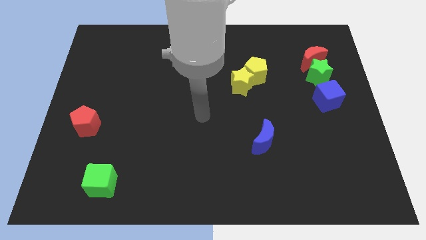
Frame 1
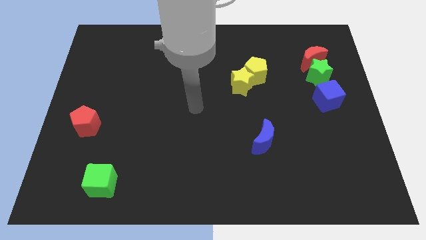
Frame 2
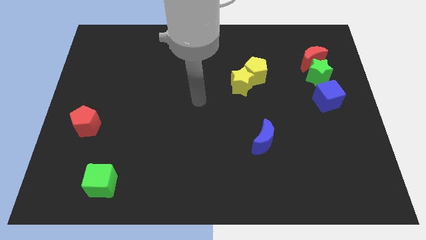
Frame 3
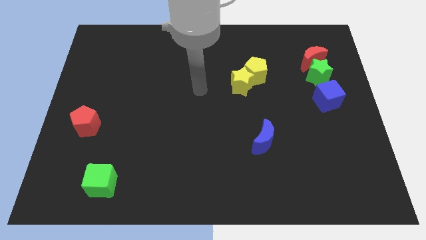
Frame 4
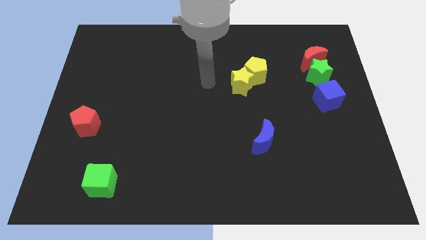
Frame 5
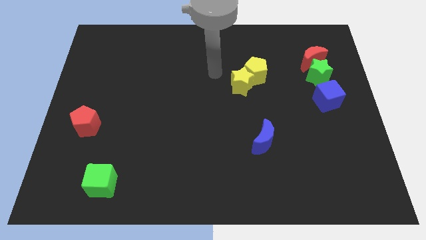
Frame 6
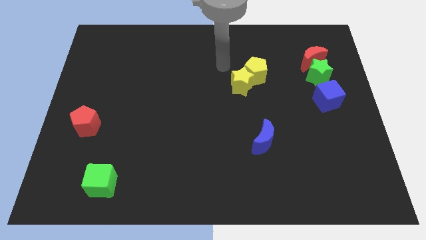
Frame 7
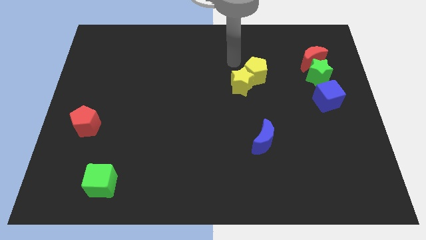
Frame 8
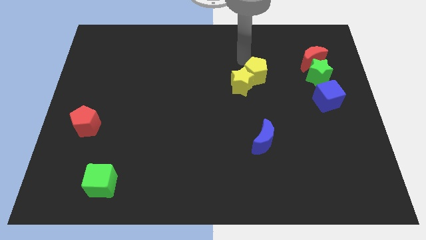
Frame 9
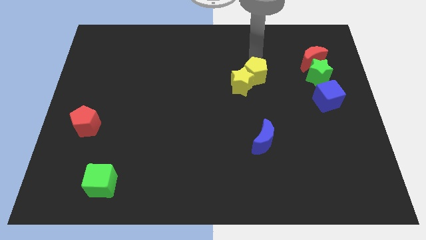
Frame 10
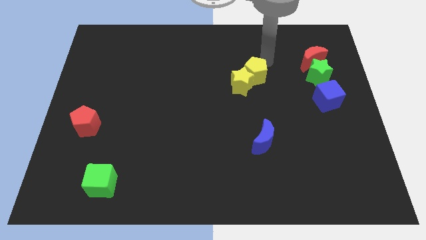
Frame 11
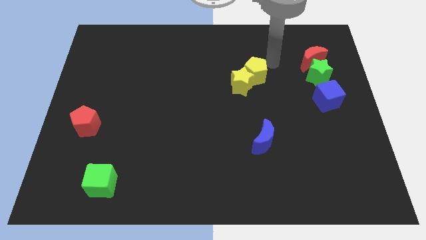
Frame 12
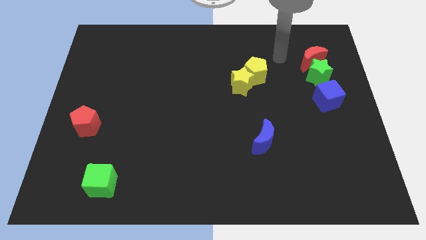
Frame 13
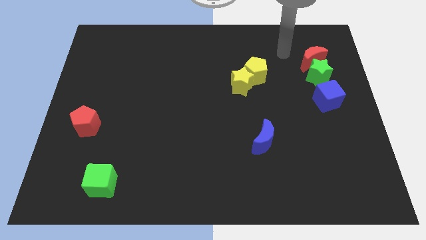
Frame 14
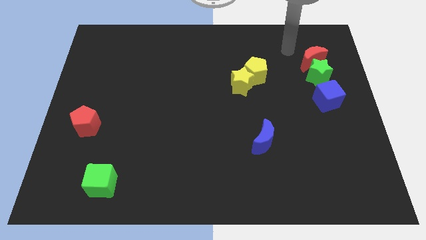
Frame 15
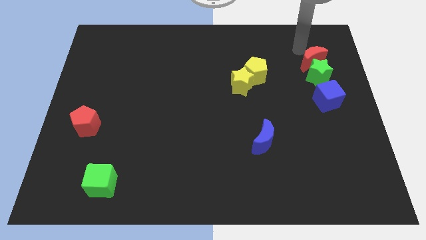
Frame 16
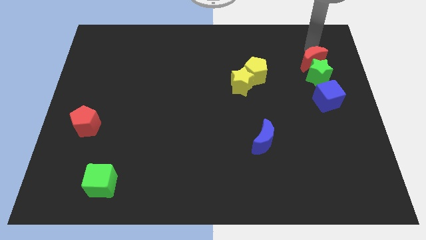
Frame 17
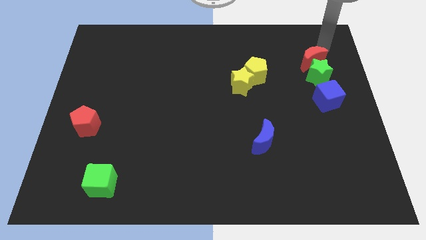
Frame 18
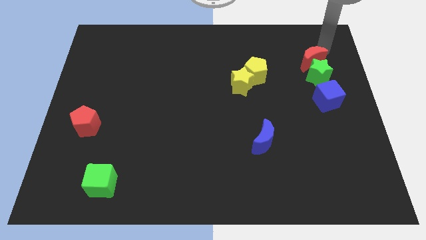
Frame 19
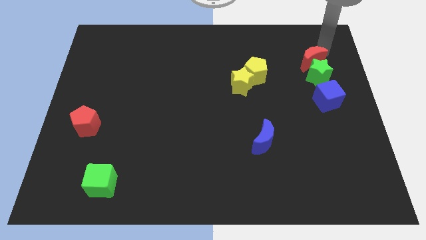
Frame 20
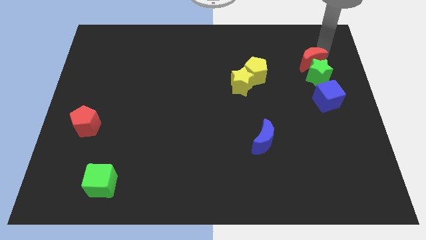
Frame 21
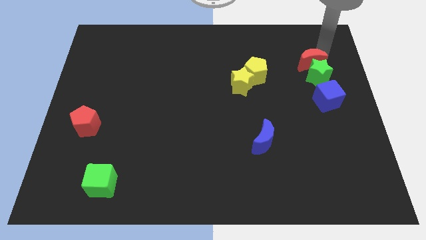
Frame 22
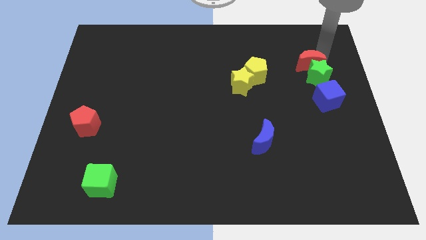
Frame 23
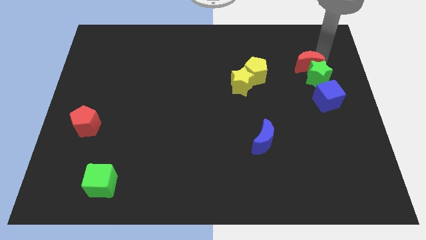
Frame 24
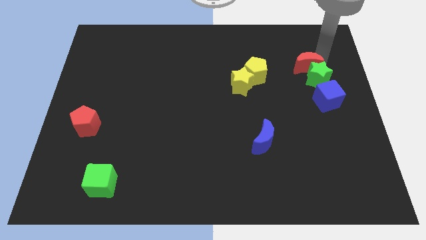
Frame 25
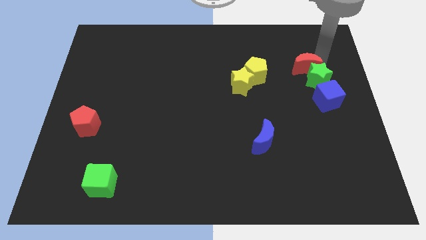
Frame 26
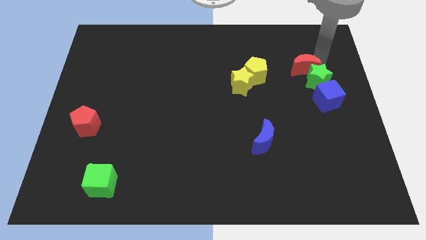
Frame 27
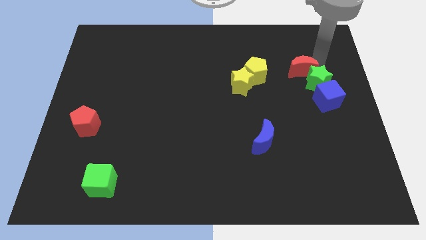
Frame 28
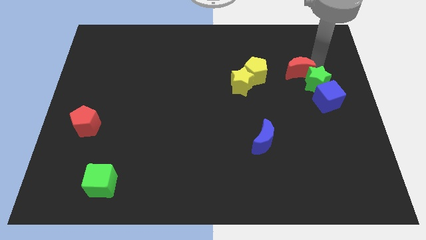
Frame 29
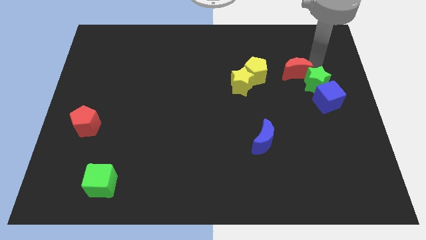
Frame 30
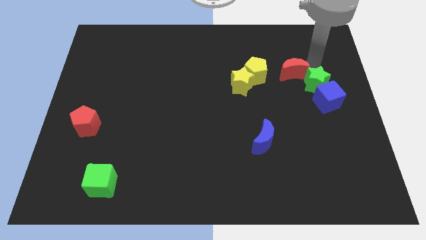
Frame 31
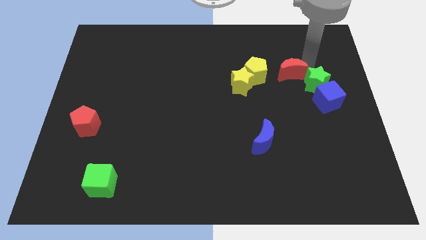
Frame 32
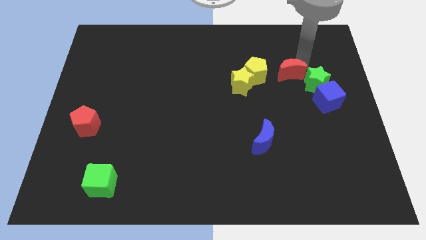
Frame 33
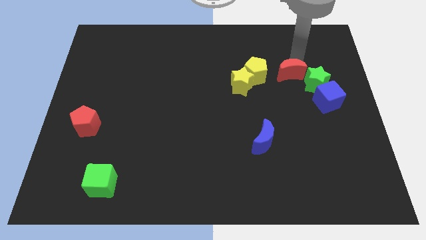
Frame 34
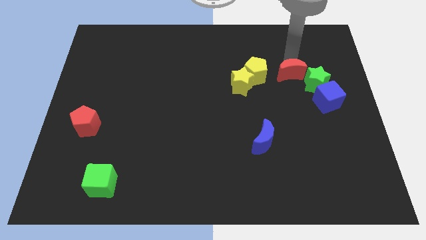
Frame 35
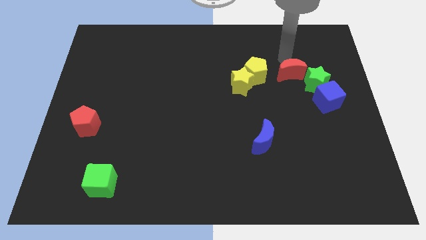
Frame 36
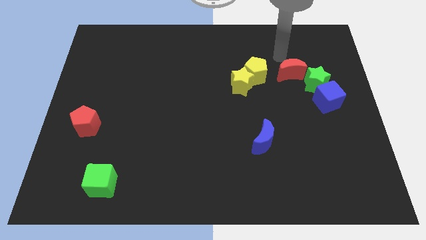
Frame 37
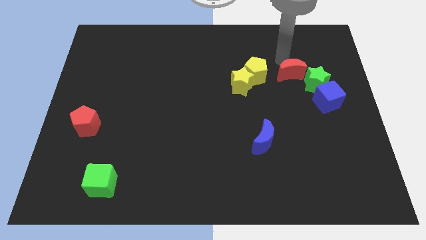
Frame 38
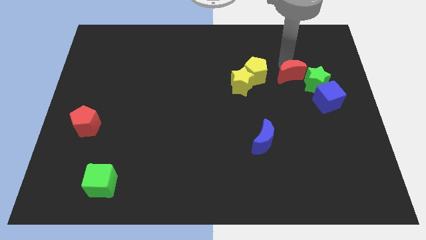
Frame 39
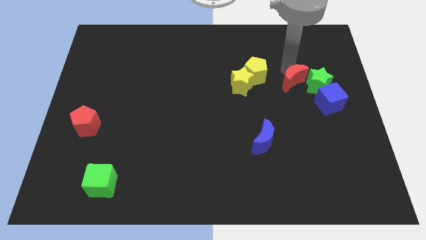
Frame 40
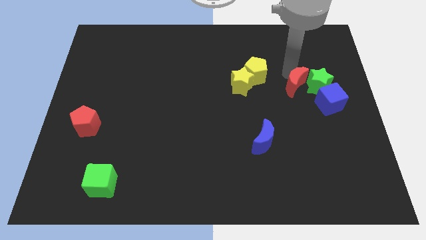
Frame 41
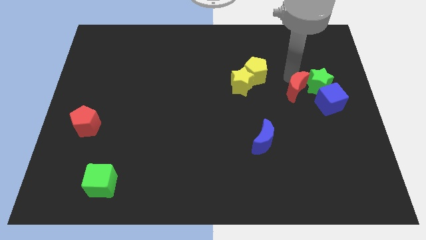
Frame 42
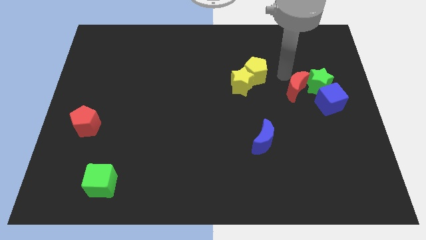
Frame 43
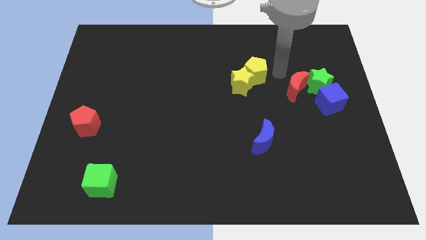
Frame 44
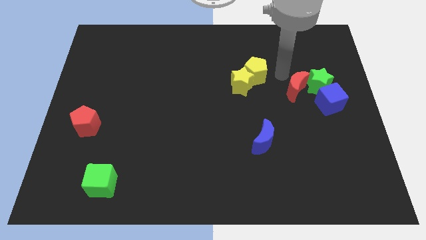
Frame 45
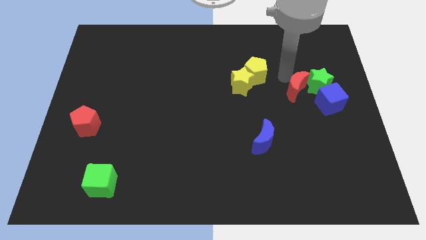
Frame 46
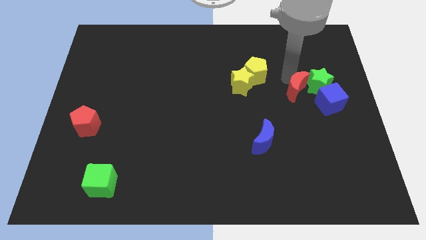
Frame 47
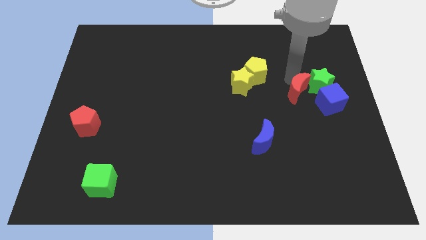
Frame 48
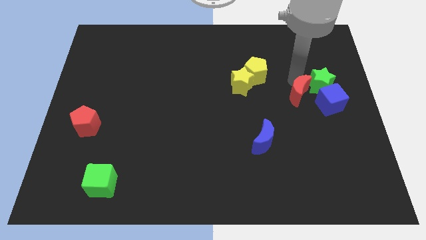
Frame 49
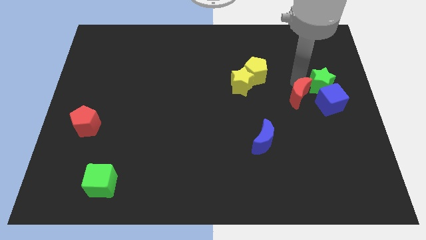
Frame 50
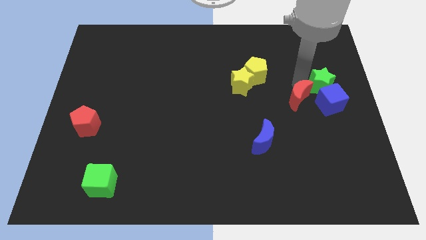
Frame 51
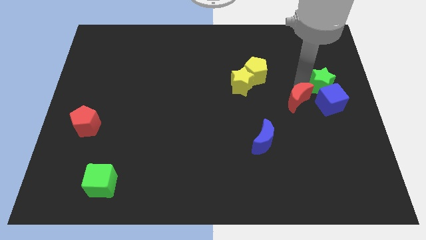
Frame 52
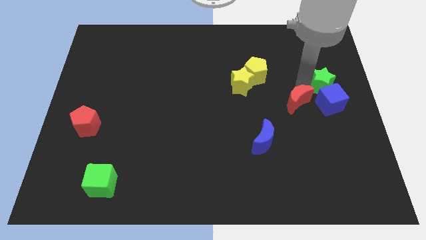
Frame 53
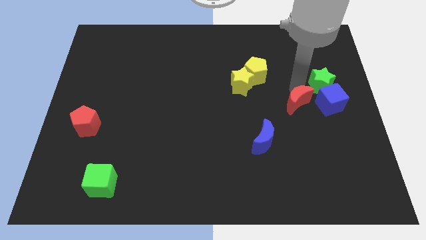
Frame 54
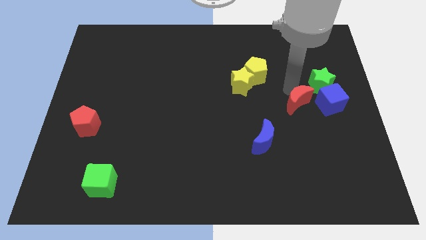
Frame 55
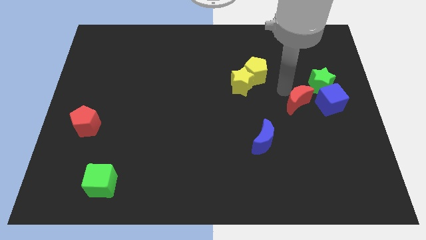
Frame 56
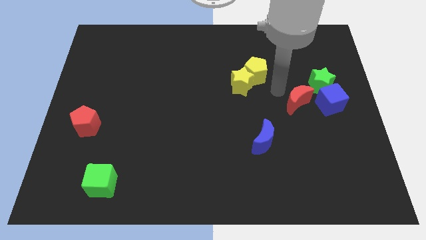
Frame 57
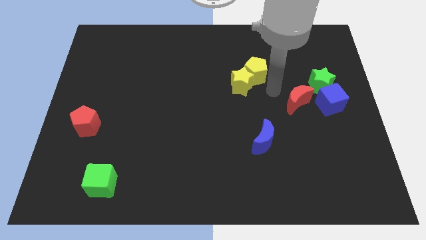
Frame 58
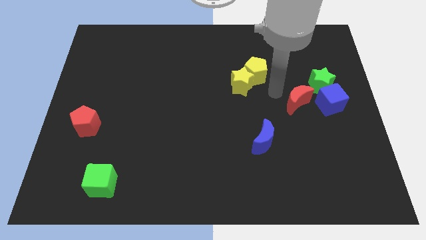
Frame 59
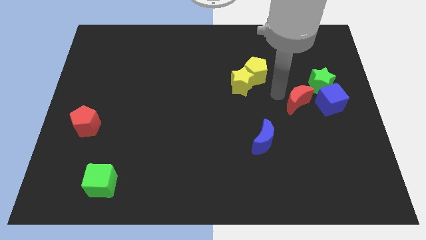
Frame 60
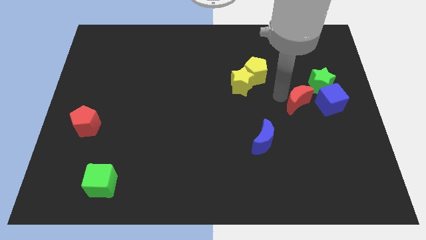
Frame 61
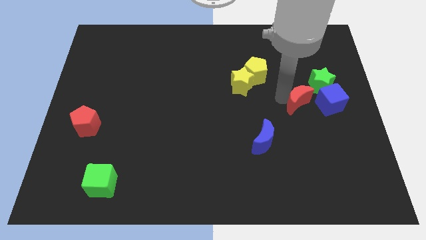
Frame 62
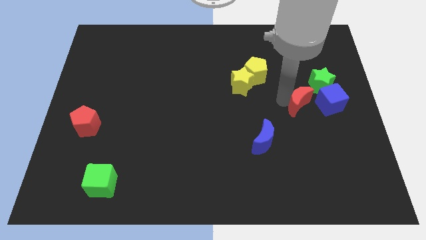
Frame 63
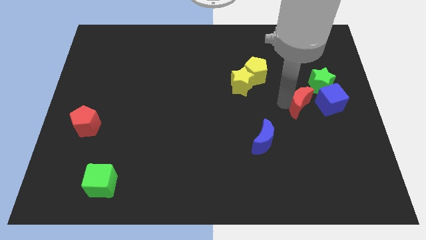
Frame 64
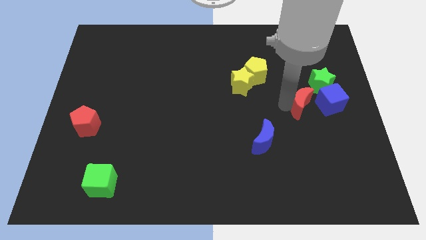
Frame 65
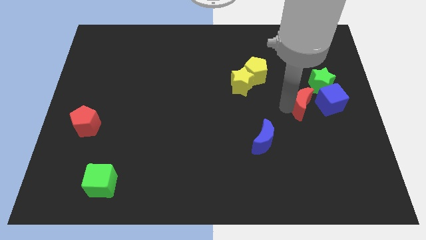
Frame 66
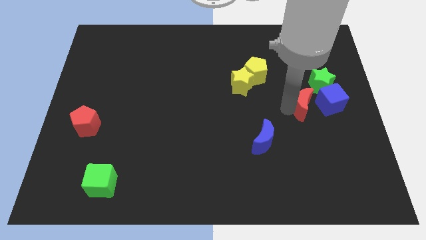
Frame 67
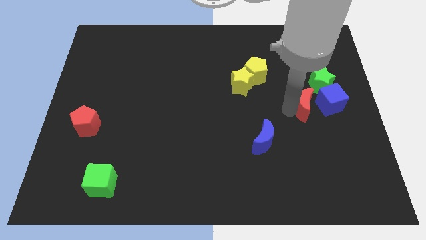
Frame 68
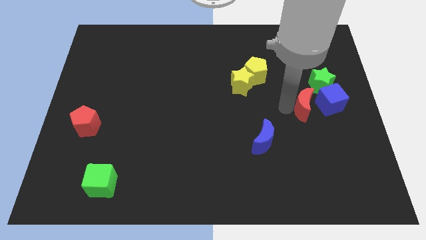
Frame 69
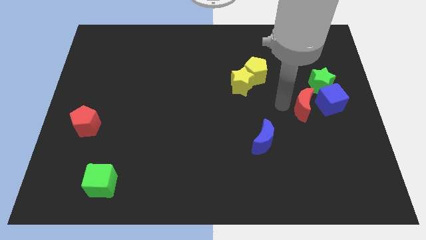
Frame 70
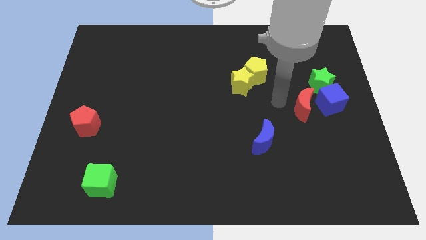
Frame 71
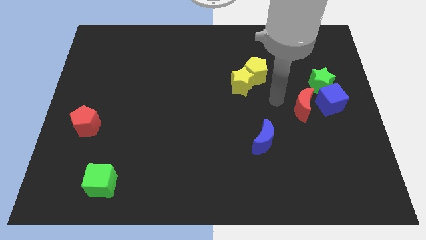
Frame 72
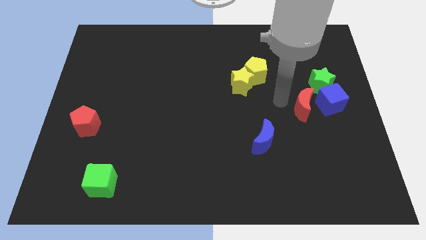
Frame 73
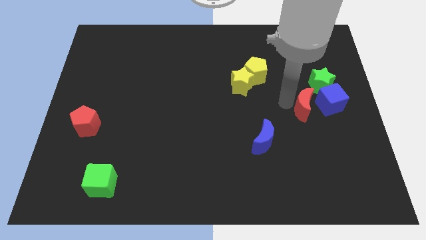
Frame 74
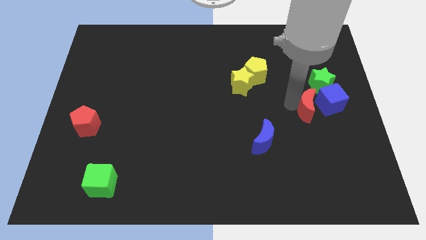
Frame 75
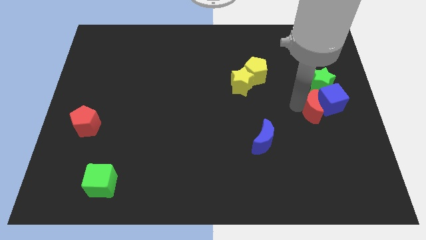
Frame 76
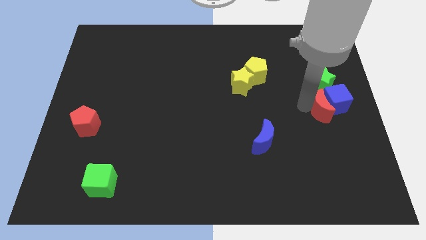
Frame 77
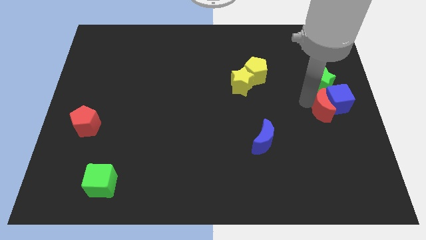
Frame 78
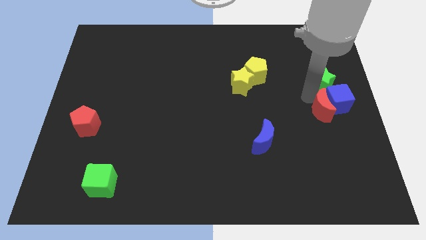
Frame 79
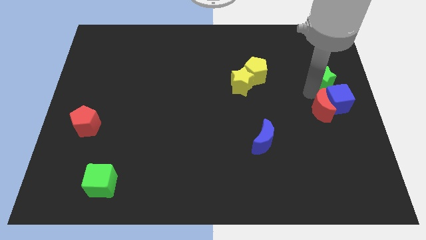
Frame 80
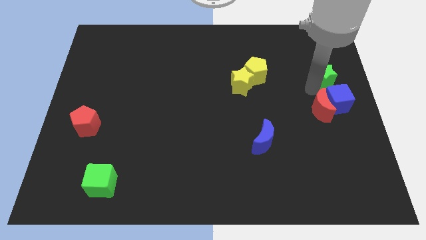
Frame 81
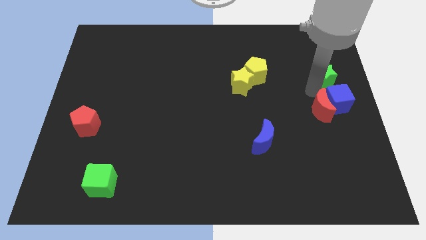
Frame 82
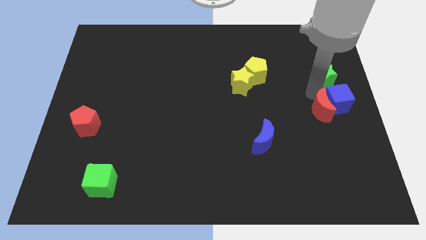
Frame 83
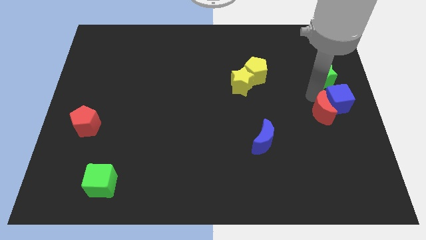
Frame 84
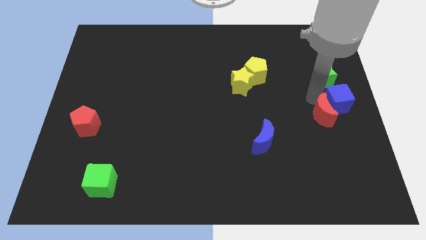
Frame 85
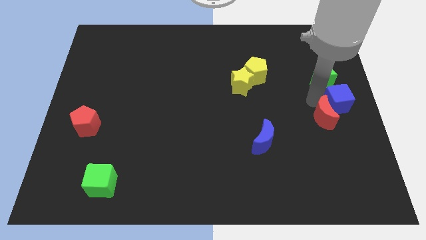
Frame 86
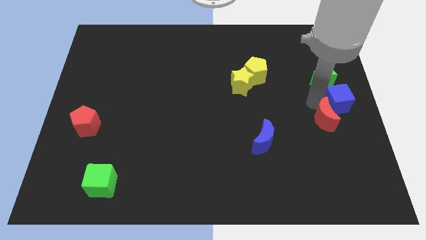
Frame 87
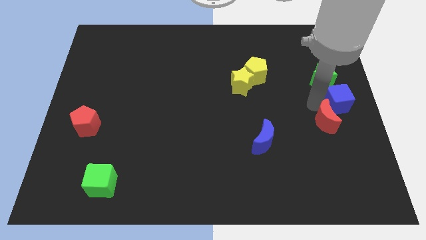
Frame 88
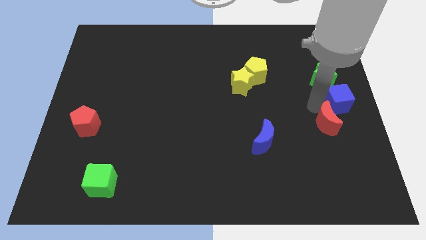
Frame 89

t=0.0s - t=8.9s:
slide the red moon downwards
